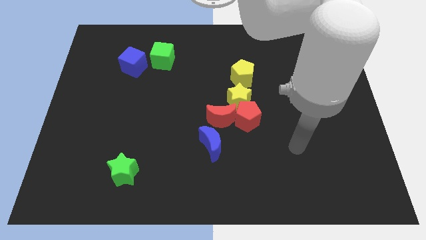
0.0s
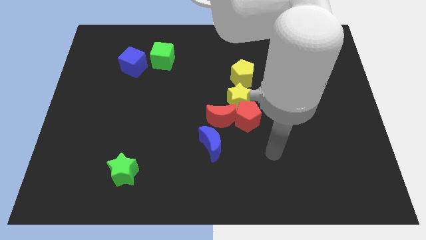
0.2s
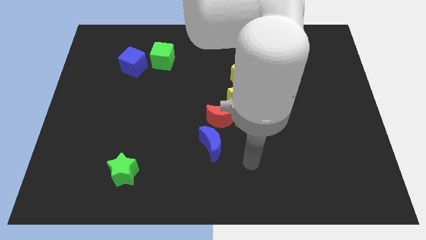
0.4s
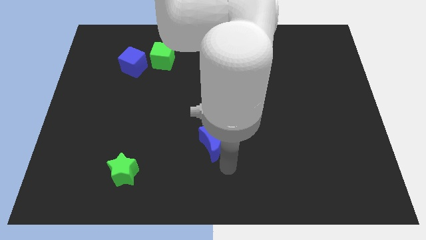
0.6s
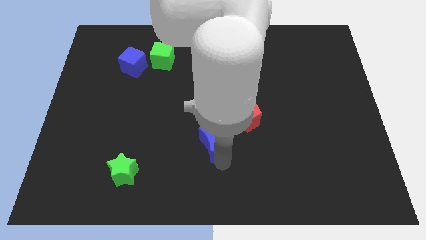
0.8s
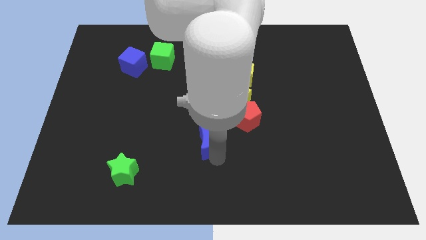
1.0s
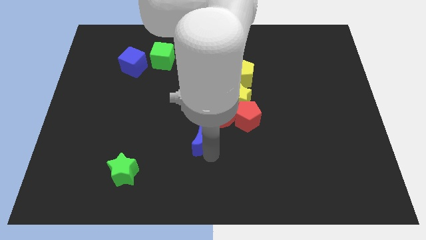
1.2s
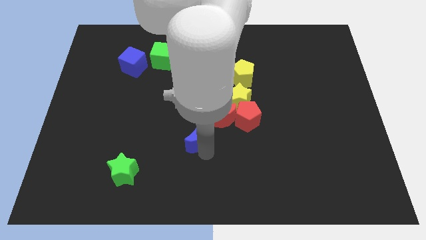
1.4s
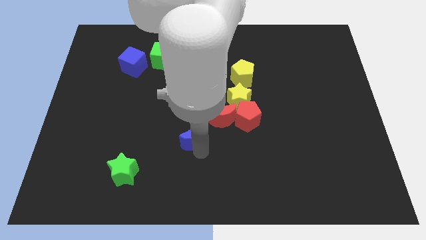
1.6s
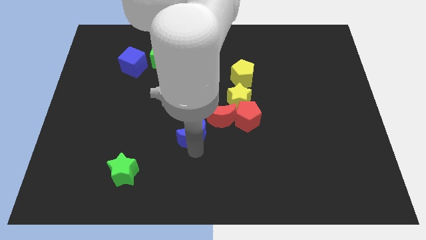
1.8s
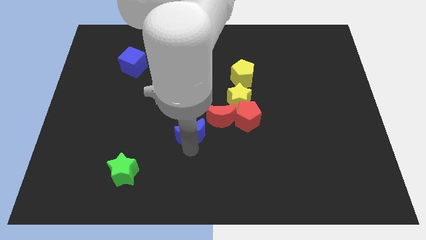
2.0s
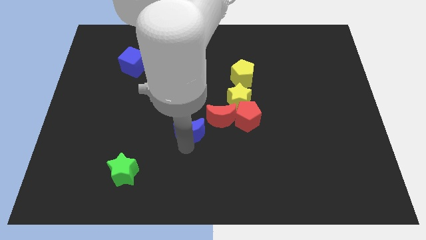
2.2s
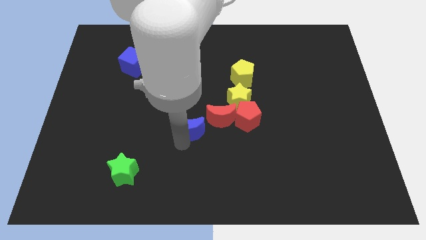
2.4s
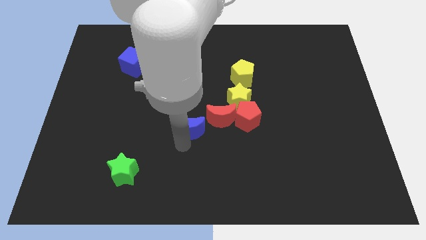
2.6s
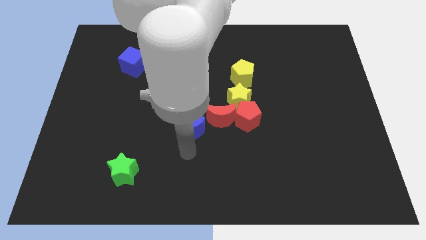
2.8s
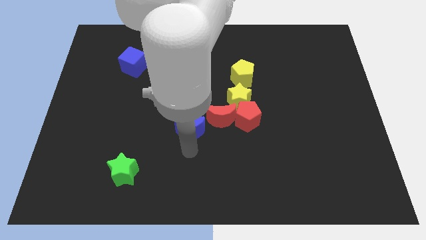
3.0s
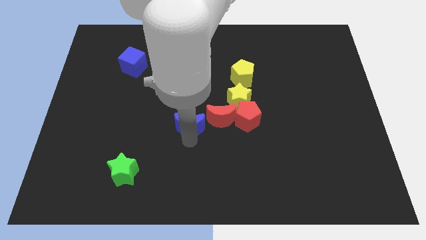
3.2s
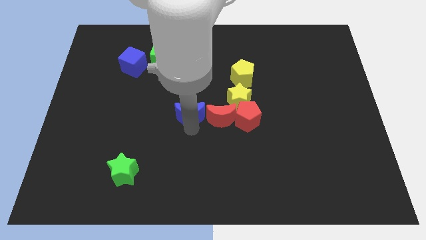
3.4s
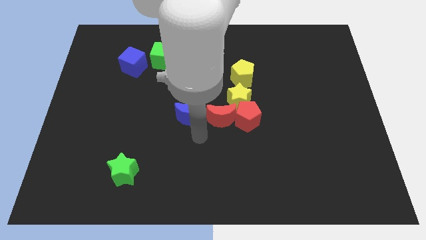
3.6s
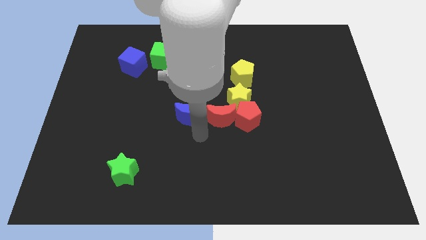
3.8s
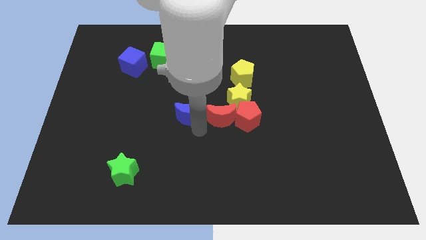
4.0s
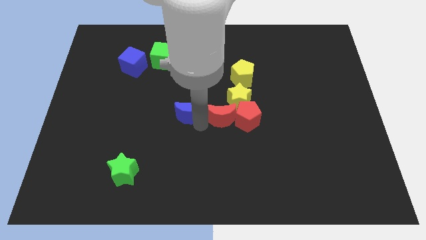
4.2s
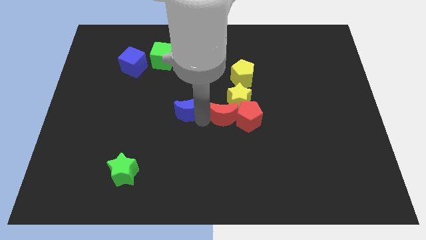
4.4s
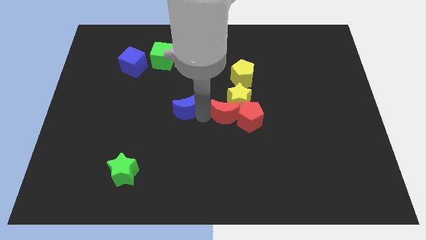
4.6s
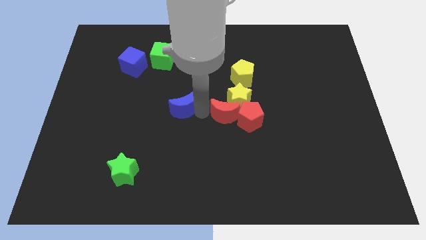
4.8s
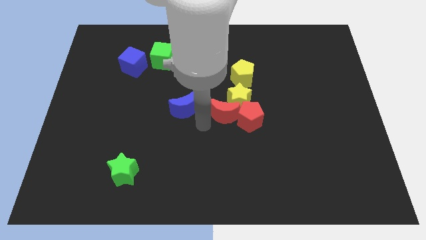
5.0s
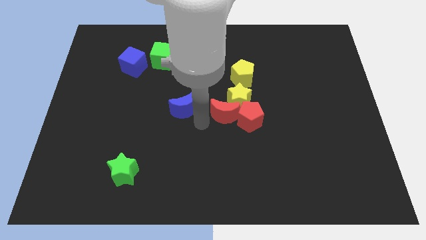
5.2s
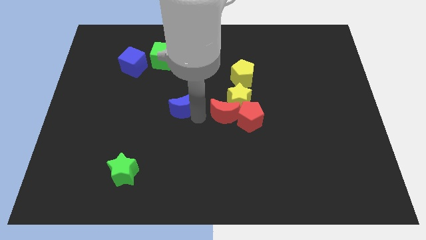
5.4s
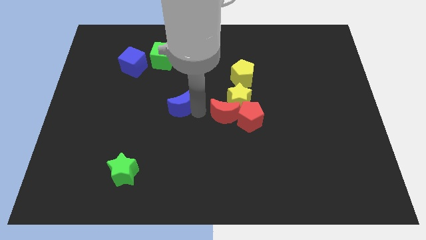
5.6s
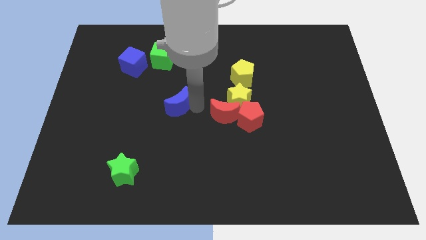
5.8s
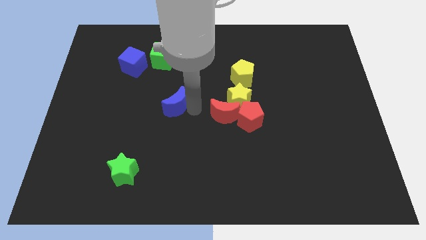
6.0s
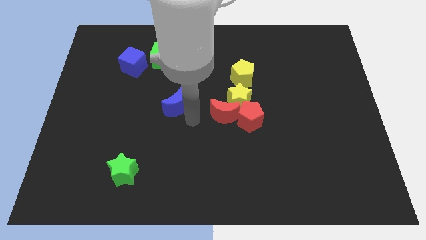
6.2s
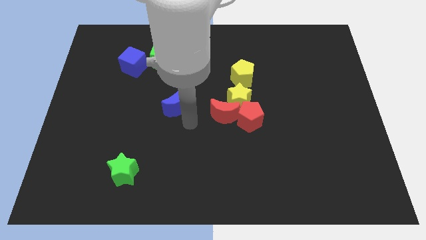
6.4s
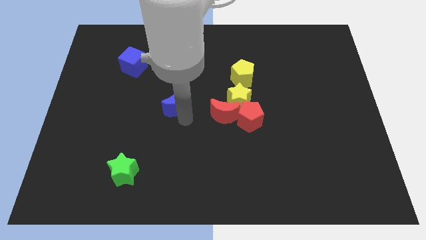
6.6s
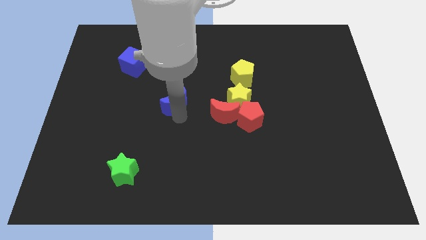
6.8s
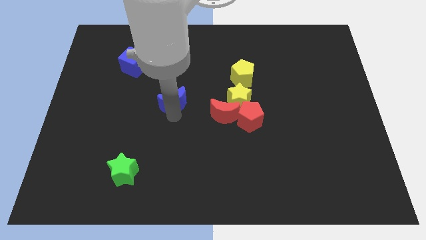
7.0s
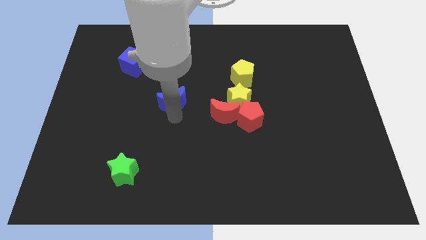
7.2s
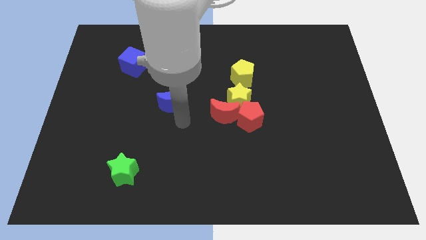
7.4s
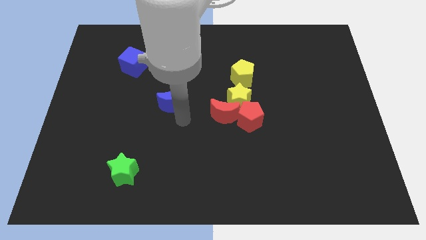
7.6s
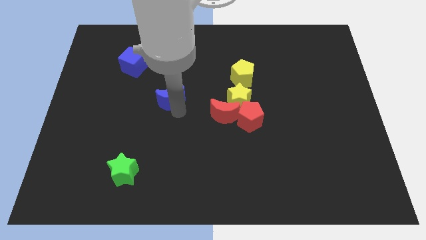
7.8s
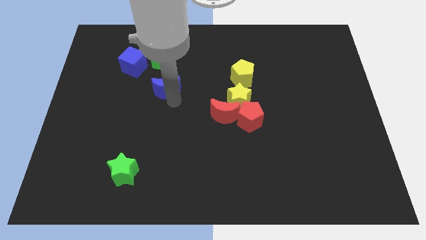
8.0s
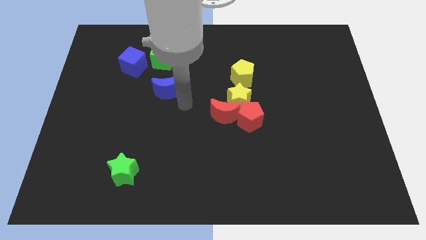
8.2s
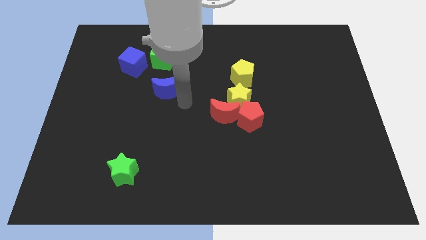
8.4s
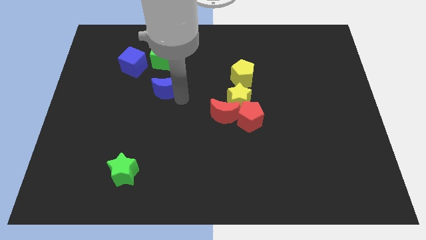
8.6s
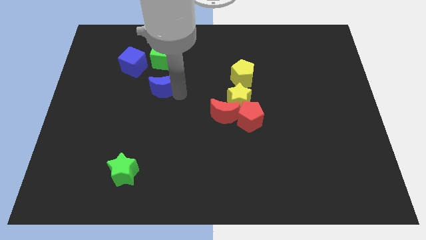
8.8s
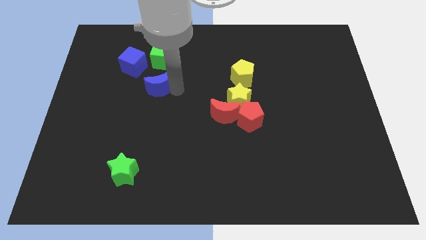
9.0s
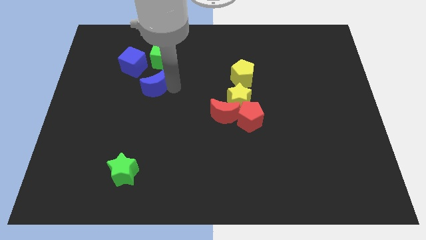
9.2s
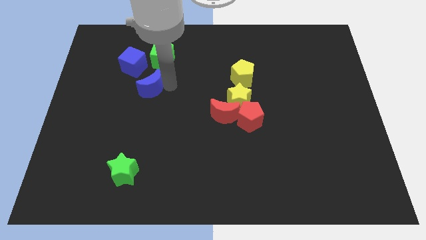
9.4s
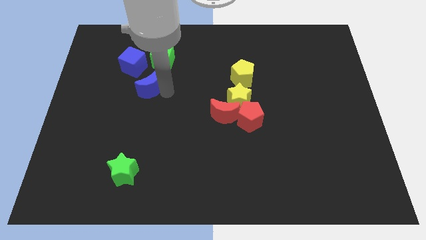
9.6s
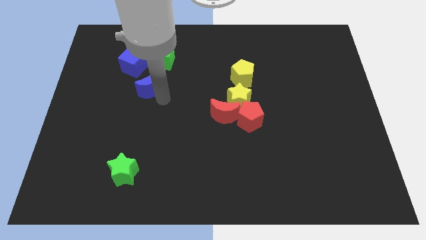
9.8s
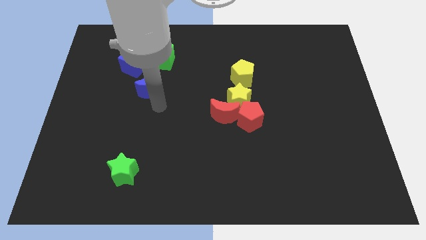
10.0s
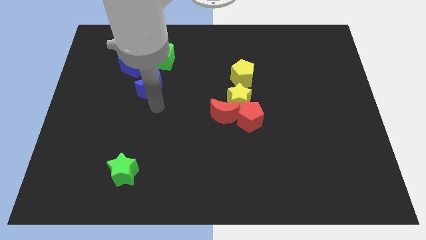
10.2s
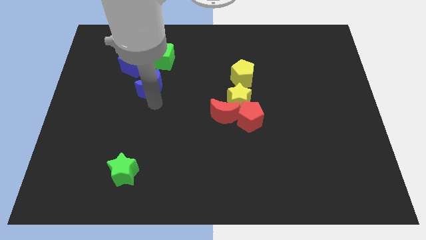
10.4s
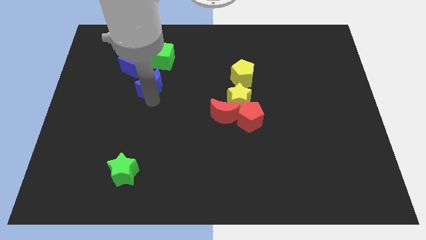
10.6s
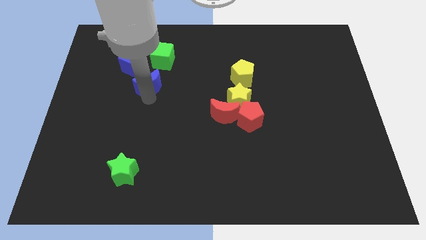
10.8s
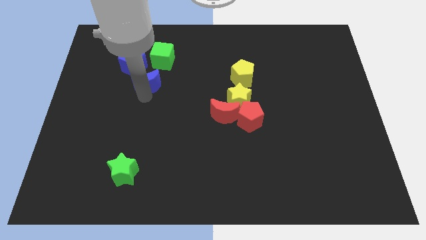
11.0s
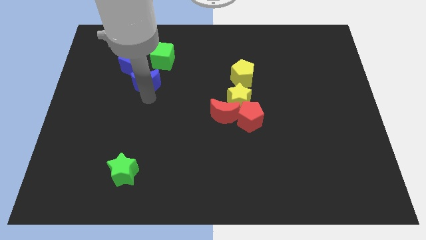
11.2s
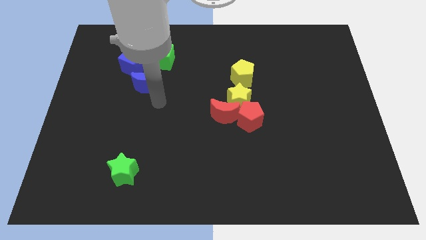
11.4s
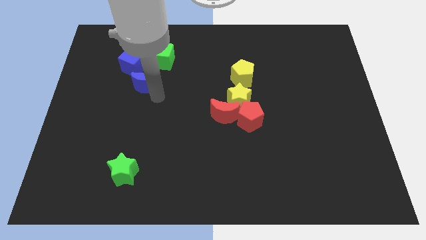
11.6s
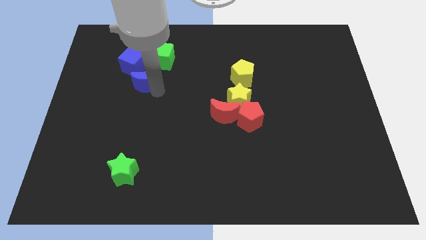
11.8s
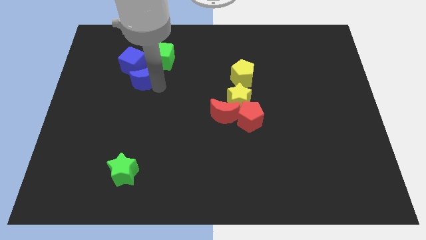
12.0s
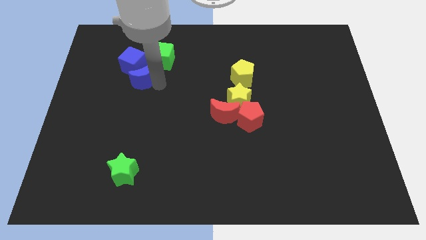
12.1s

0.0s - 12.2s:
put the blue moon next to the blue cube
